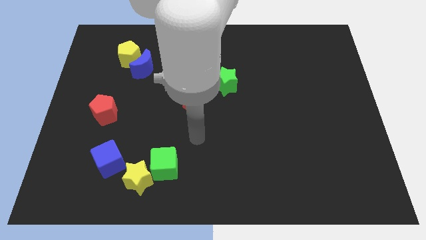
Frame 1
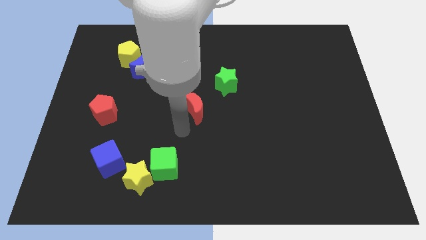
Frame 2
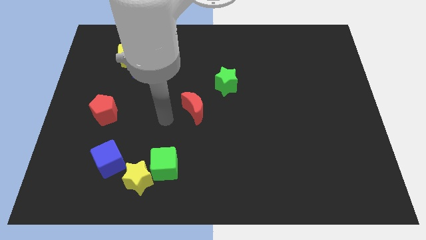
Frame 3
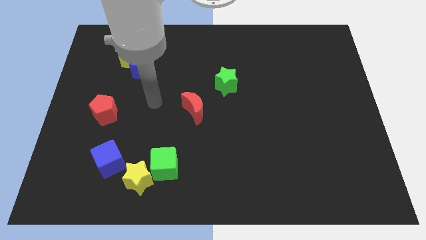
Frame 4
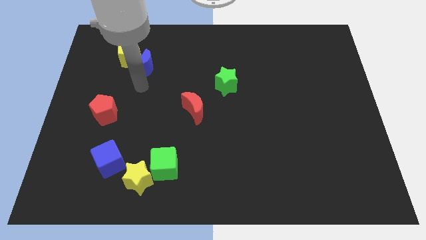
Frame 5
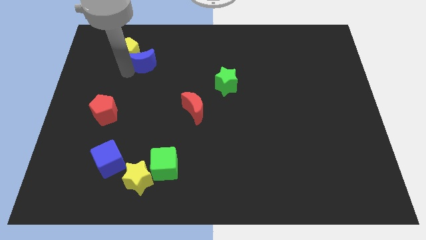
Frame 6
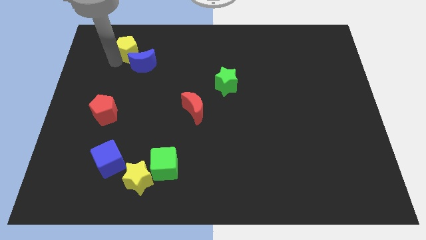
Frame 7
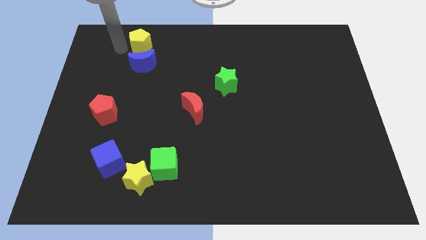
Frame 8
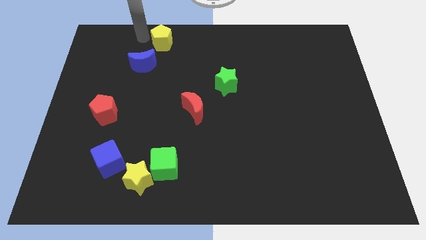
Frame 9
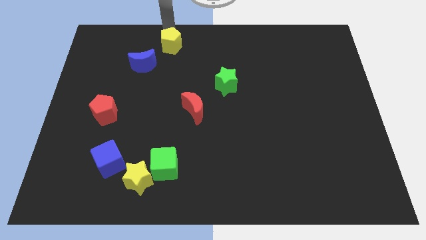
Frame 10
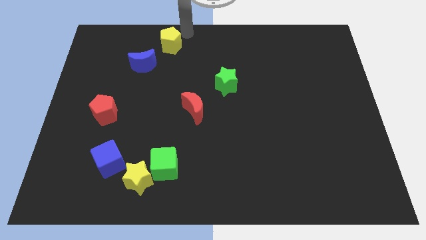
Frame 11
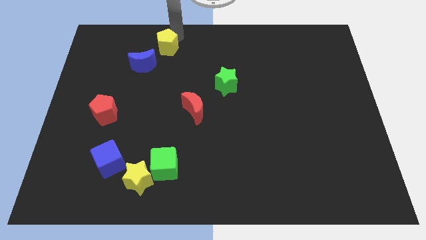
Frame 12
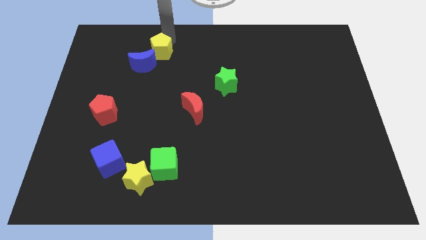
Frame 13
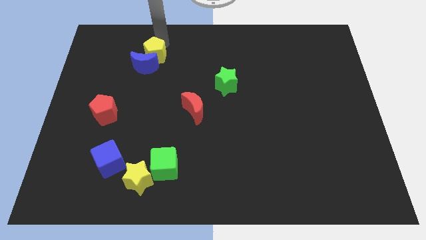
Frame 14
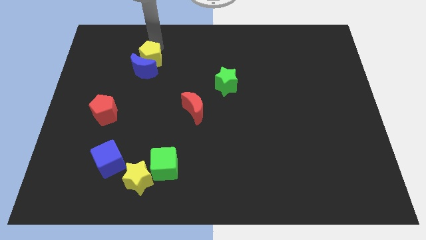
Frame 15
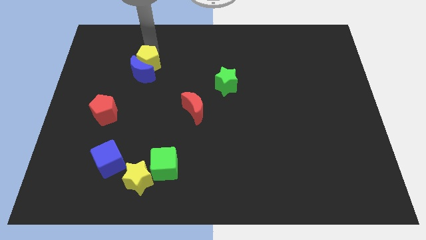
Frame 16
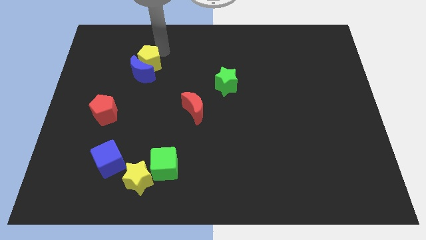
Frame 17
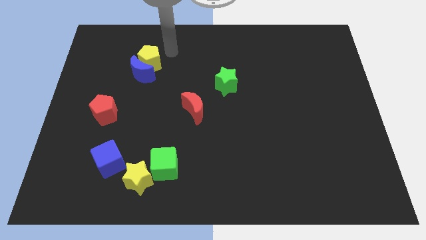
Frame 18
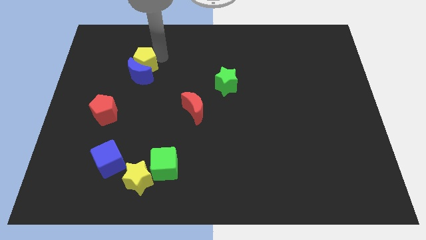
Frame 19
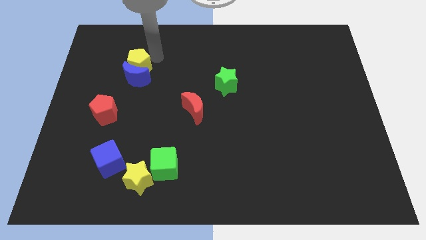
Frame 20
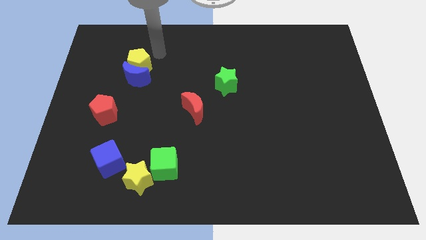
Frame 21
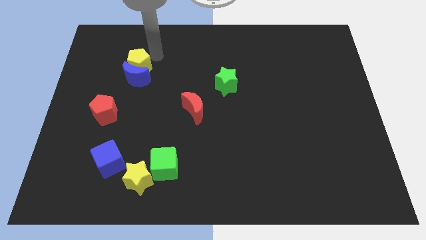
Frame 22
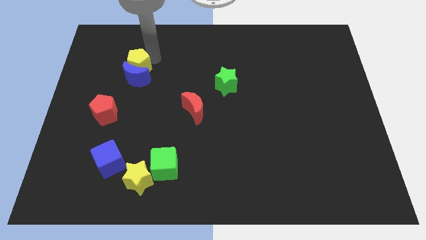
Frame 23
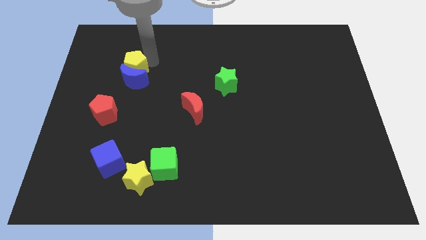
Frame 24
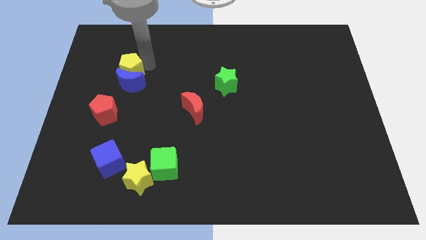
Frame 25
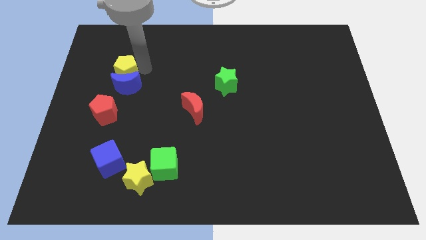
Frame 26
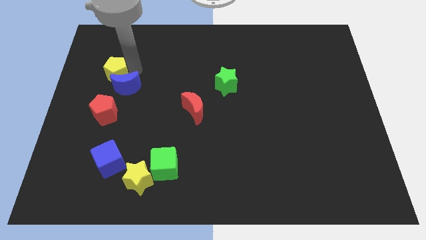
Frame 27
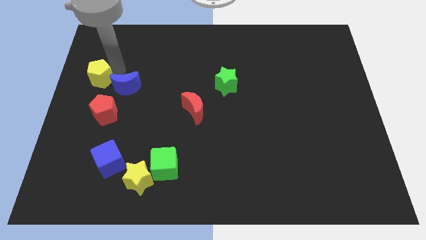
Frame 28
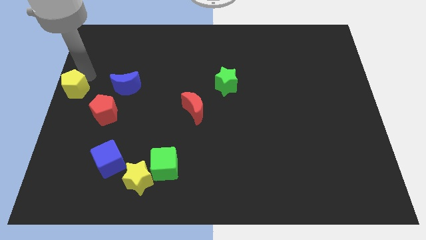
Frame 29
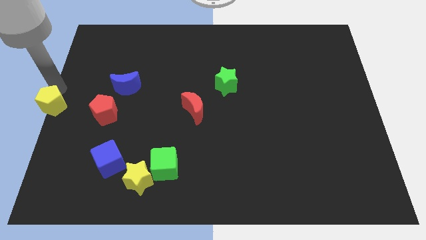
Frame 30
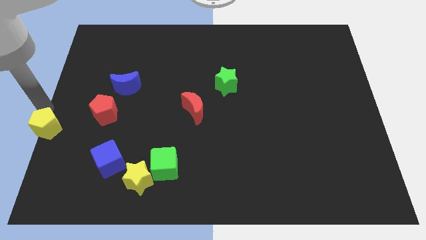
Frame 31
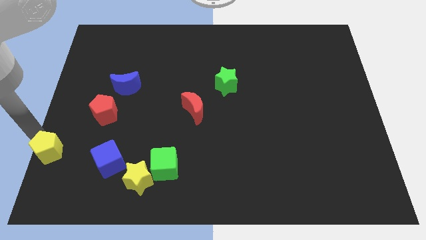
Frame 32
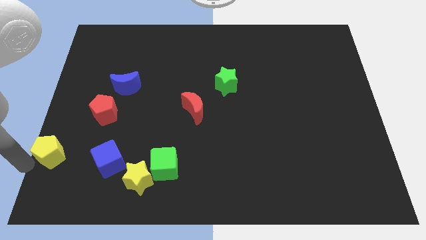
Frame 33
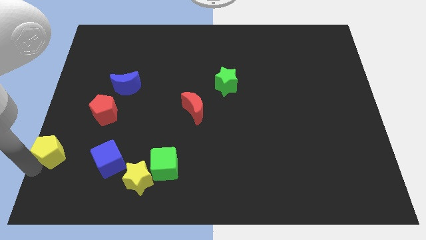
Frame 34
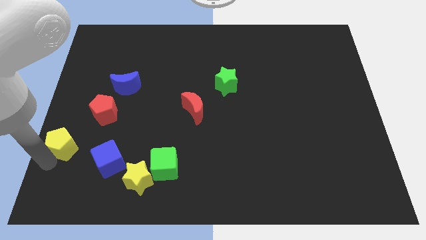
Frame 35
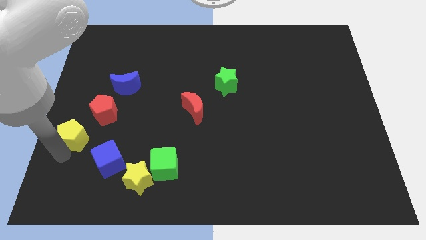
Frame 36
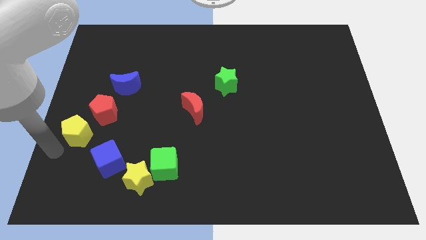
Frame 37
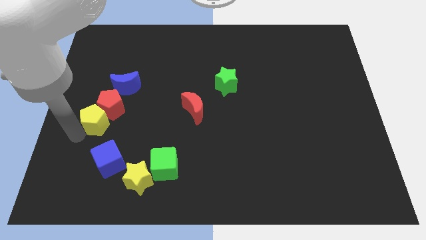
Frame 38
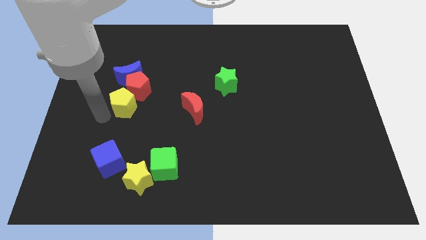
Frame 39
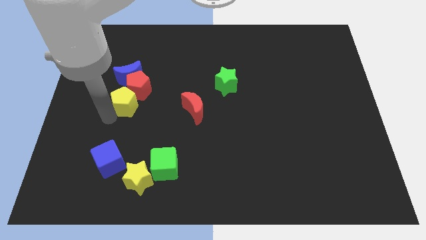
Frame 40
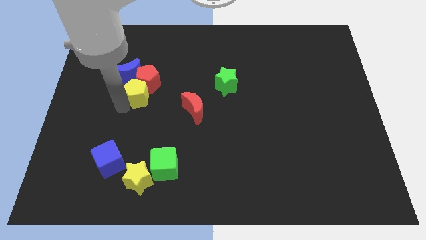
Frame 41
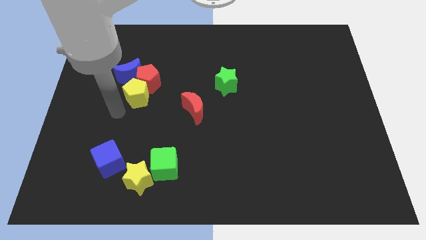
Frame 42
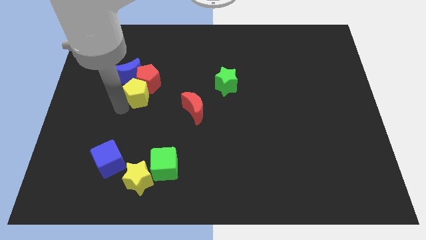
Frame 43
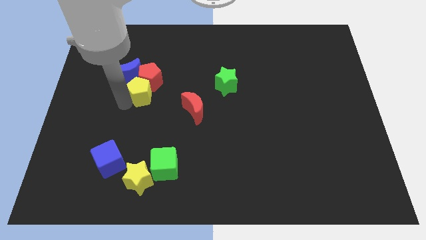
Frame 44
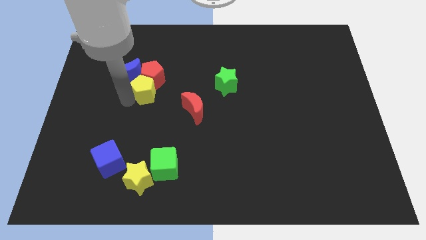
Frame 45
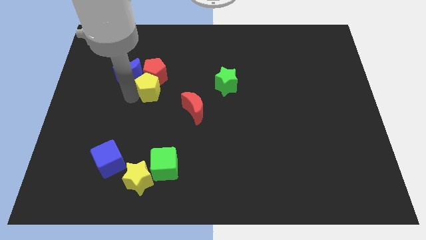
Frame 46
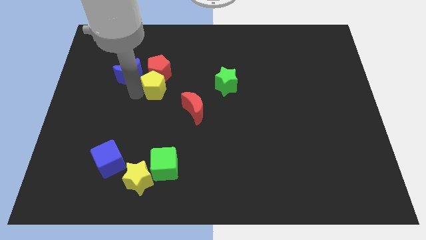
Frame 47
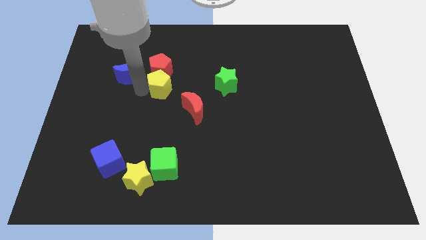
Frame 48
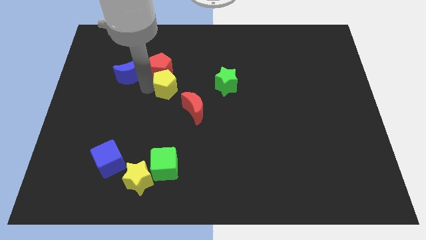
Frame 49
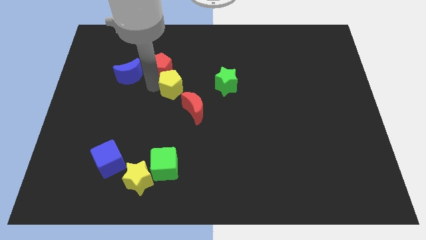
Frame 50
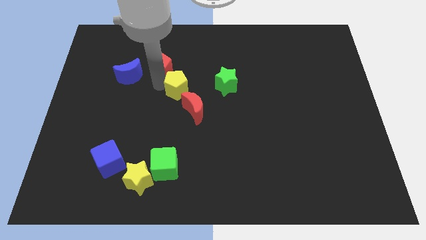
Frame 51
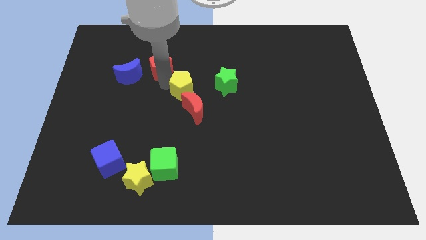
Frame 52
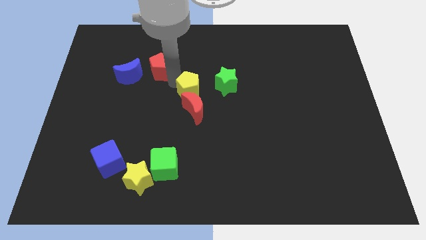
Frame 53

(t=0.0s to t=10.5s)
push the yellow pentagon to the red moon

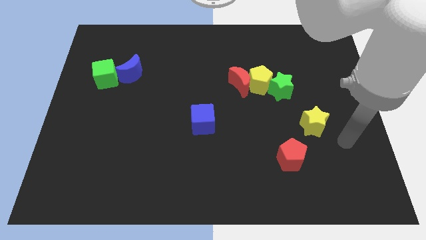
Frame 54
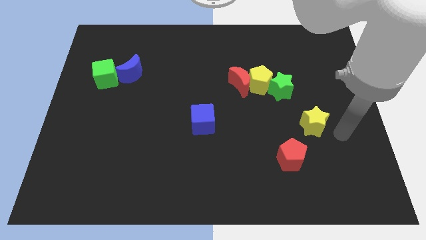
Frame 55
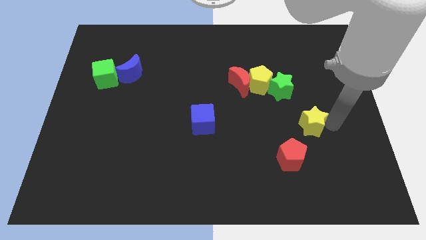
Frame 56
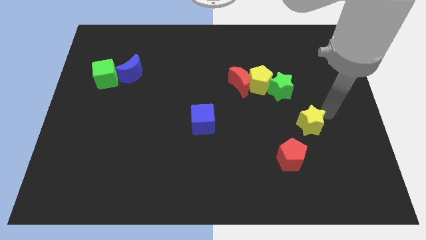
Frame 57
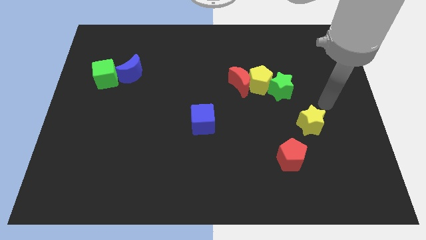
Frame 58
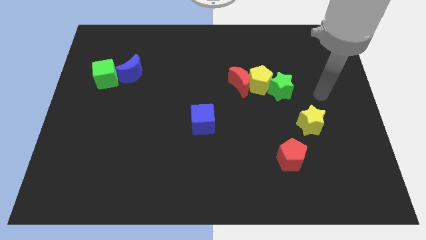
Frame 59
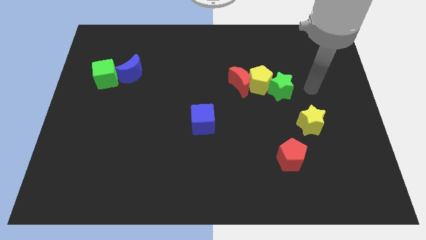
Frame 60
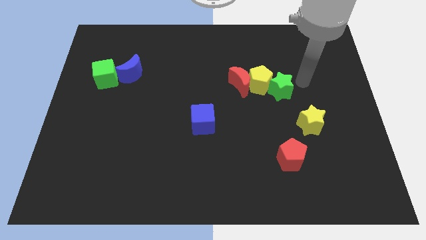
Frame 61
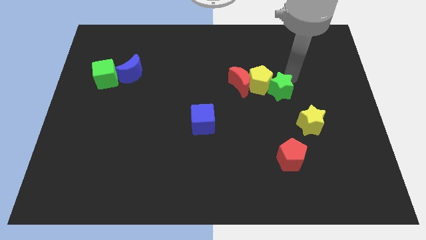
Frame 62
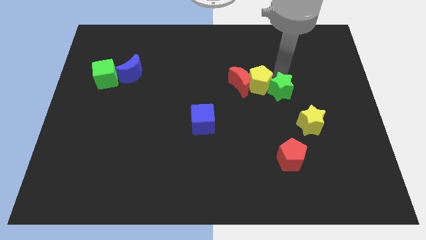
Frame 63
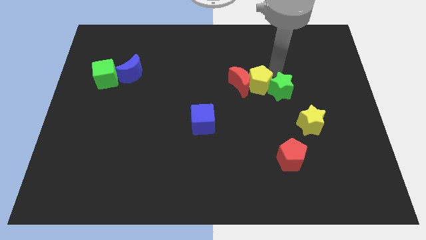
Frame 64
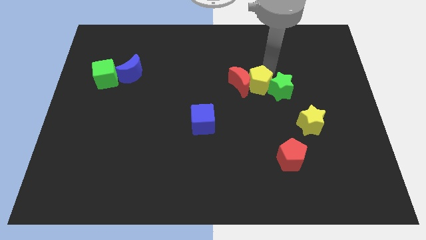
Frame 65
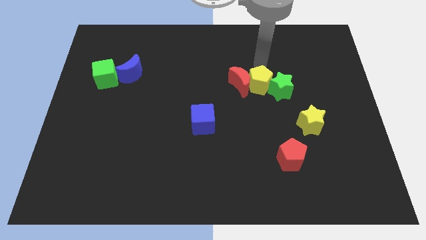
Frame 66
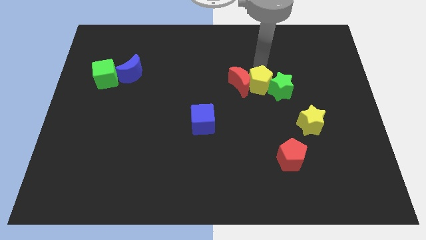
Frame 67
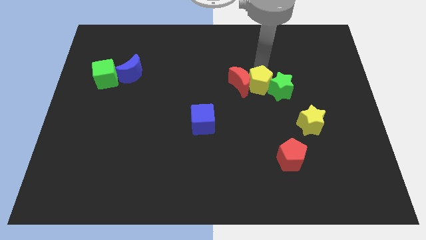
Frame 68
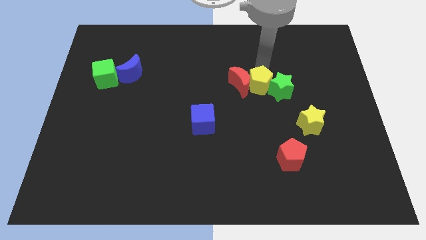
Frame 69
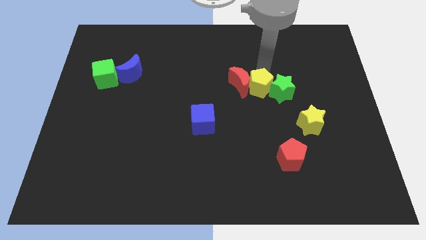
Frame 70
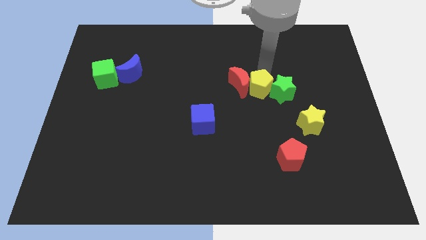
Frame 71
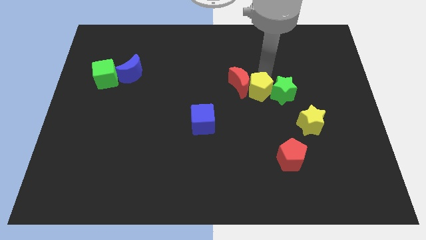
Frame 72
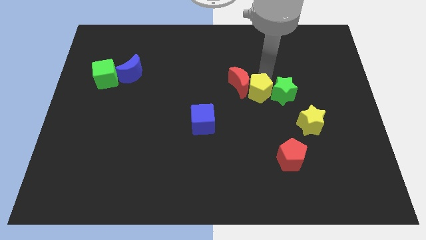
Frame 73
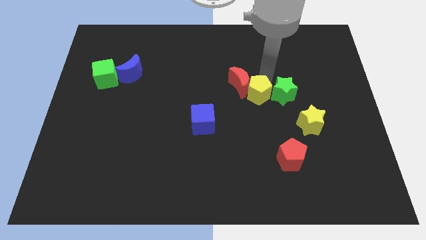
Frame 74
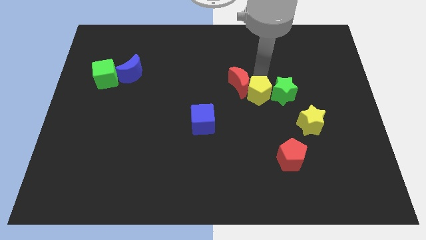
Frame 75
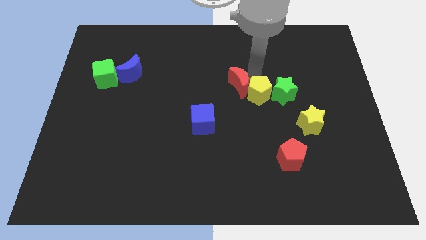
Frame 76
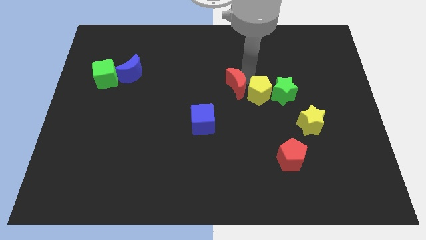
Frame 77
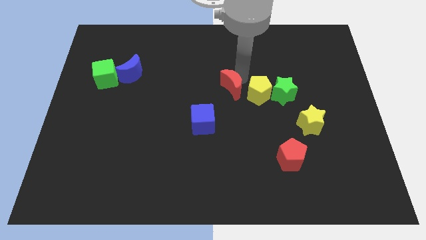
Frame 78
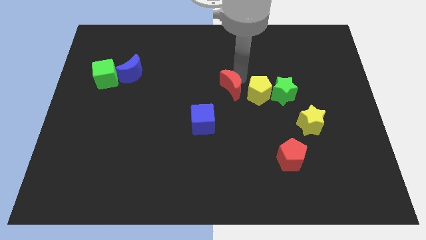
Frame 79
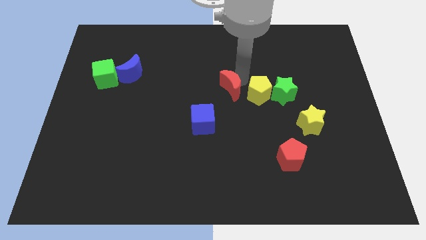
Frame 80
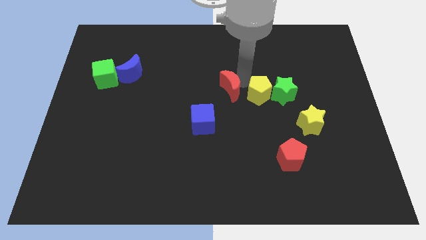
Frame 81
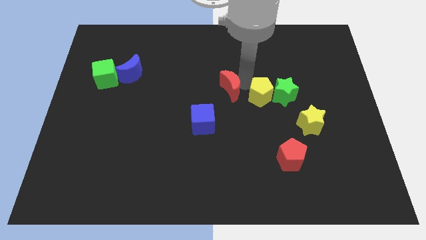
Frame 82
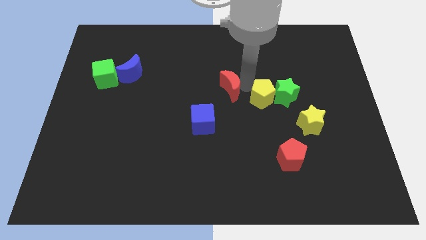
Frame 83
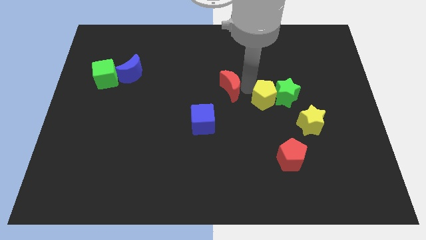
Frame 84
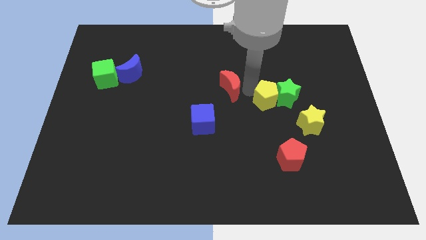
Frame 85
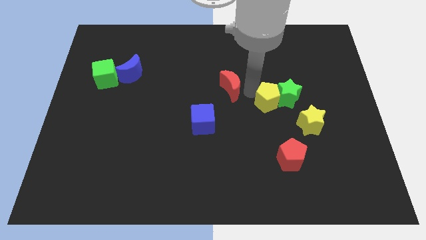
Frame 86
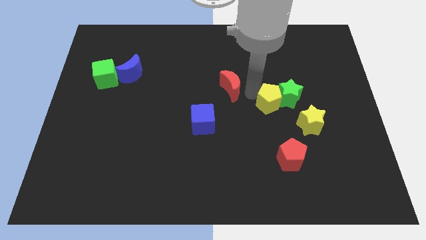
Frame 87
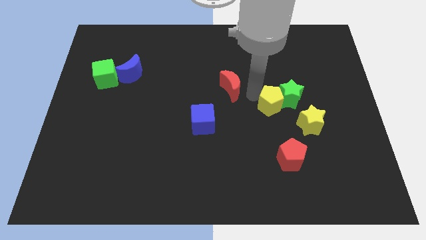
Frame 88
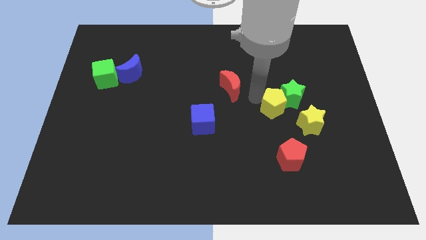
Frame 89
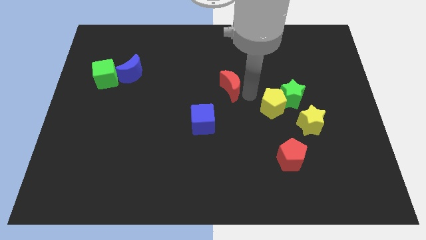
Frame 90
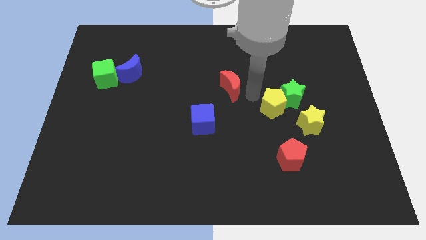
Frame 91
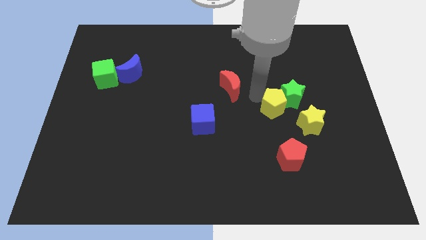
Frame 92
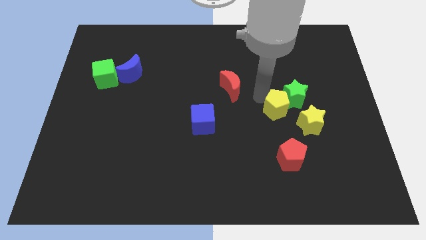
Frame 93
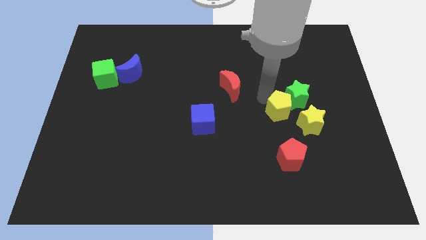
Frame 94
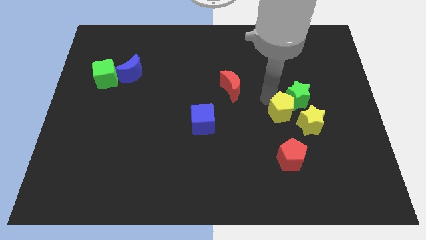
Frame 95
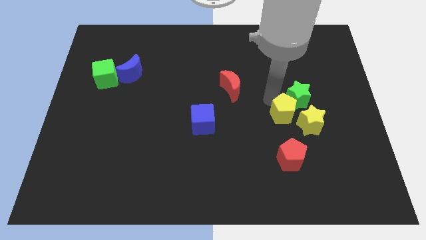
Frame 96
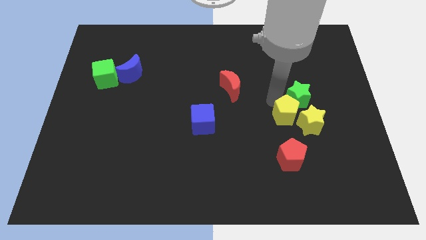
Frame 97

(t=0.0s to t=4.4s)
put the yellow pentagon towards the yellow star
